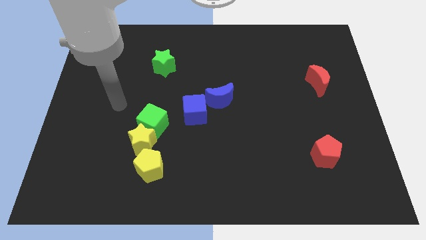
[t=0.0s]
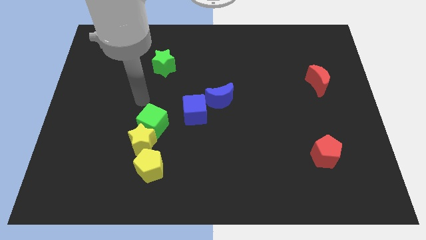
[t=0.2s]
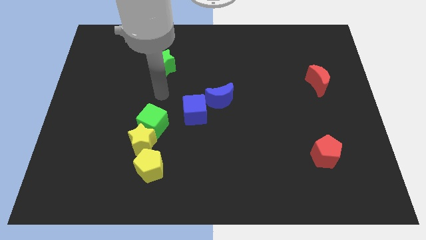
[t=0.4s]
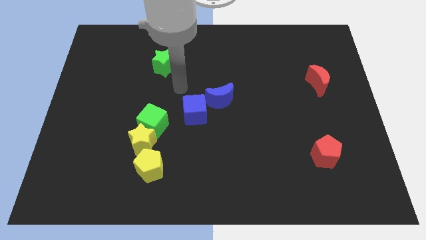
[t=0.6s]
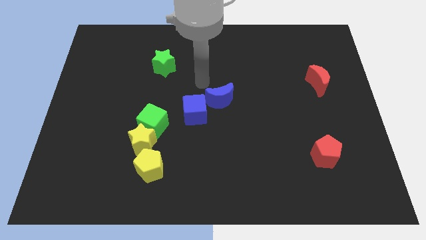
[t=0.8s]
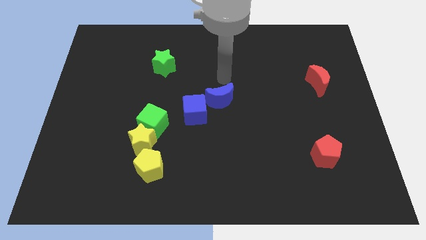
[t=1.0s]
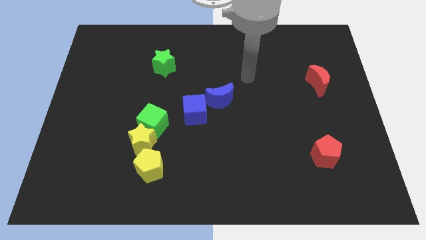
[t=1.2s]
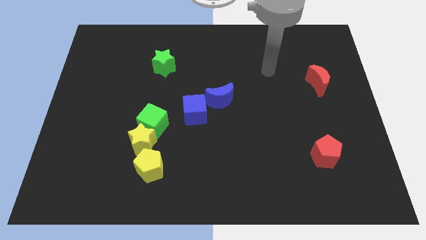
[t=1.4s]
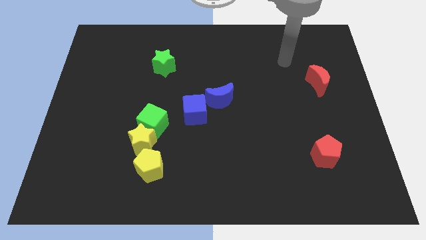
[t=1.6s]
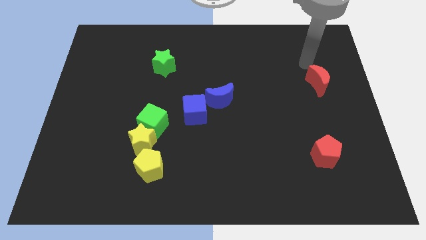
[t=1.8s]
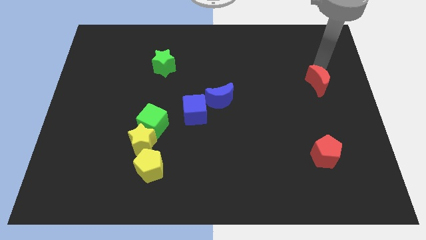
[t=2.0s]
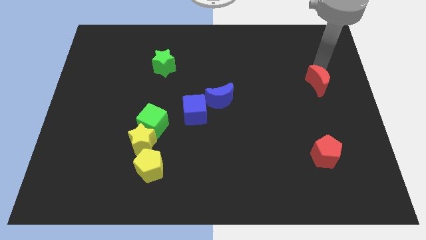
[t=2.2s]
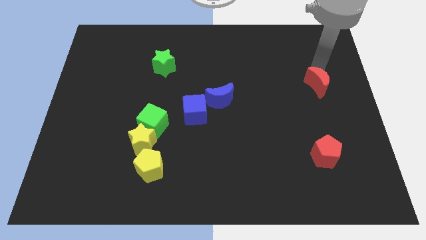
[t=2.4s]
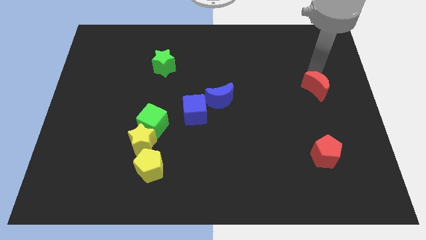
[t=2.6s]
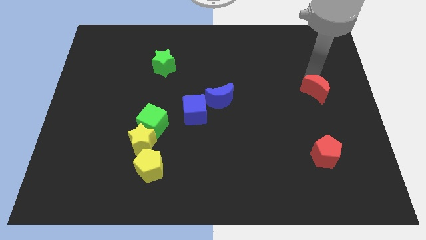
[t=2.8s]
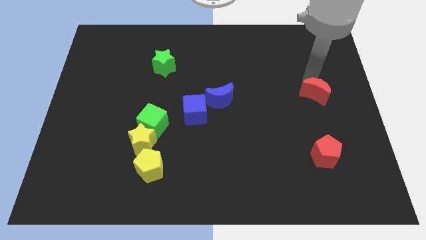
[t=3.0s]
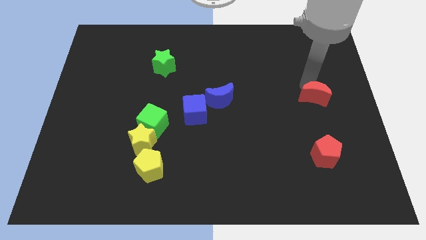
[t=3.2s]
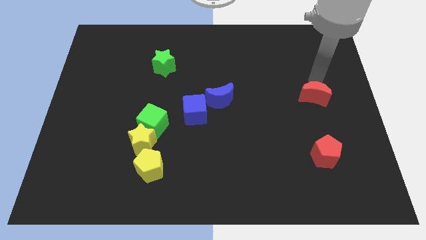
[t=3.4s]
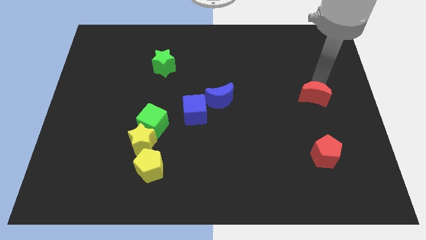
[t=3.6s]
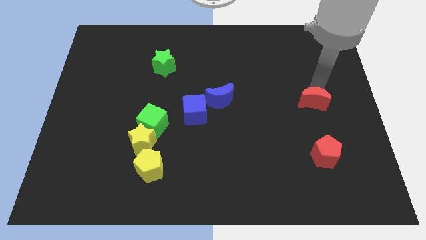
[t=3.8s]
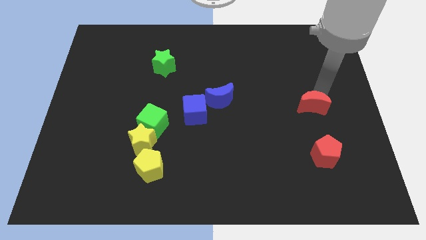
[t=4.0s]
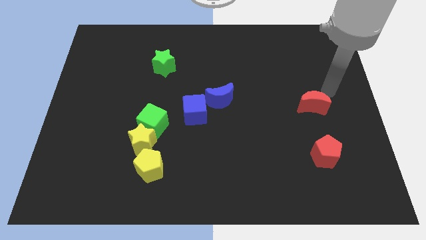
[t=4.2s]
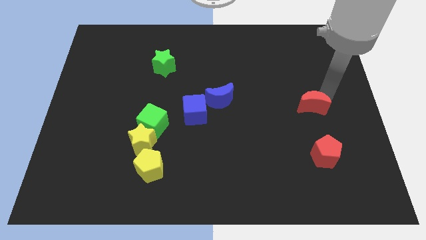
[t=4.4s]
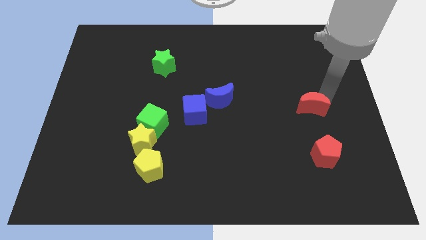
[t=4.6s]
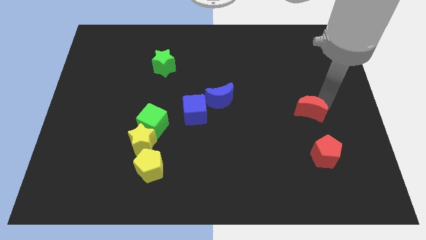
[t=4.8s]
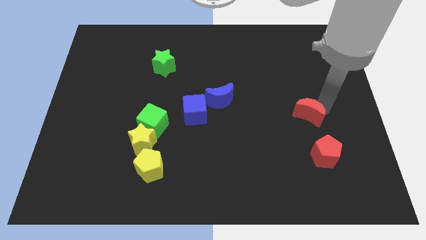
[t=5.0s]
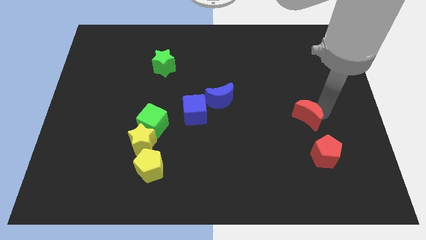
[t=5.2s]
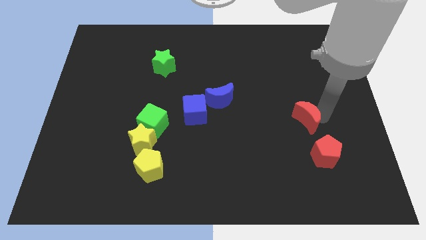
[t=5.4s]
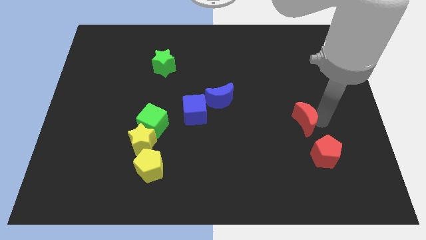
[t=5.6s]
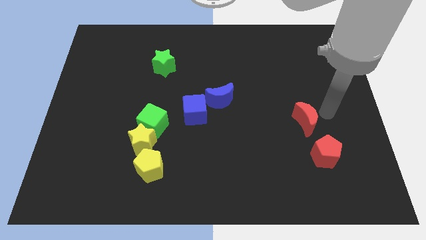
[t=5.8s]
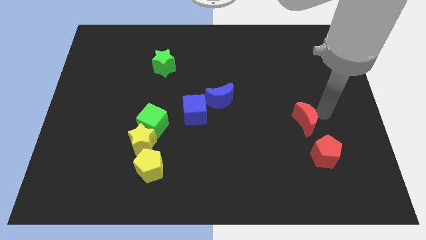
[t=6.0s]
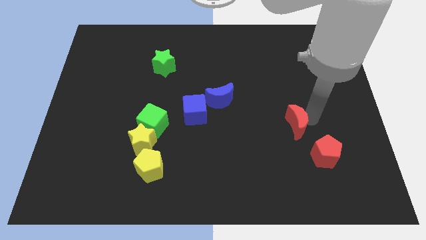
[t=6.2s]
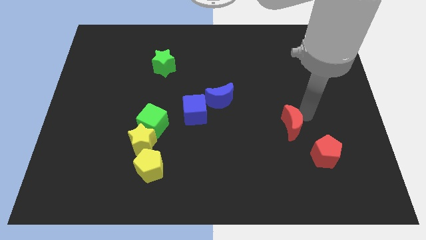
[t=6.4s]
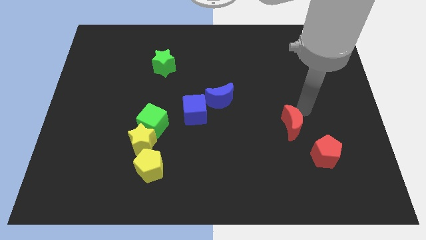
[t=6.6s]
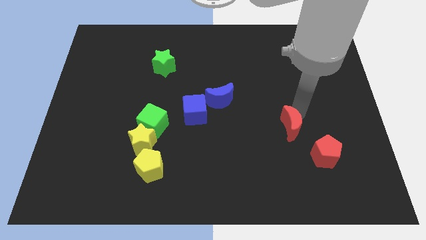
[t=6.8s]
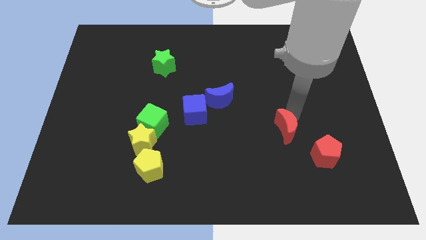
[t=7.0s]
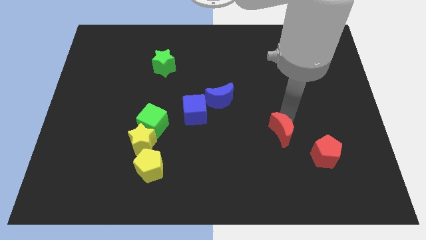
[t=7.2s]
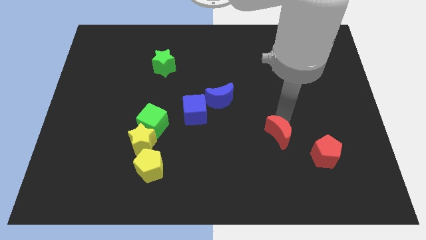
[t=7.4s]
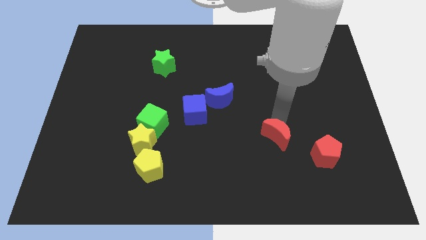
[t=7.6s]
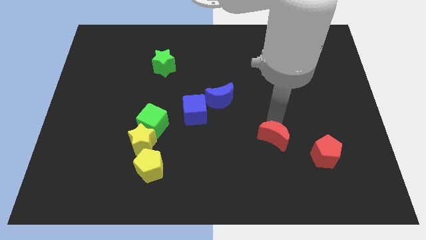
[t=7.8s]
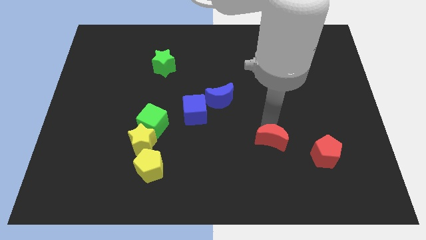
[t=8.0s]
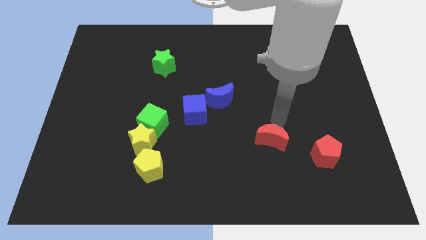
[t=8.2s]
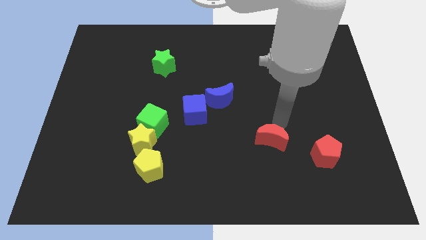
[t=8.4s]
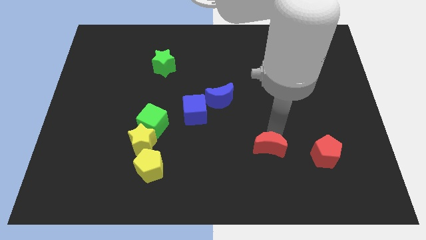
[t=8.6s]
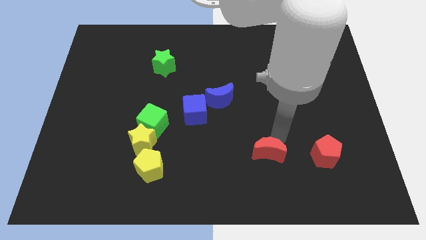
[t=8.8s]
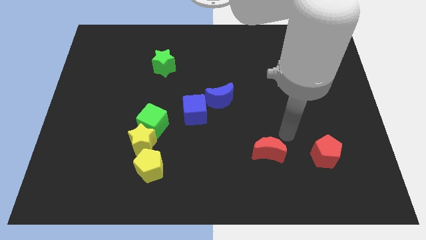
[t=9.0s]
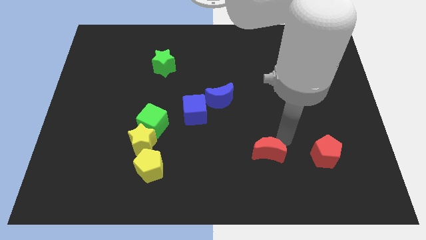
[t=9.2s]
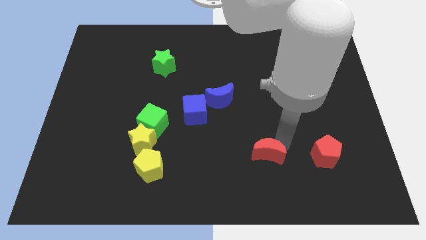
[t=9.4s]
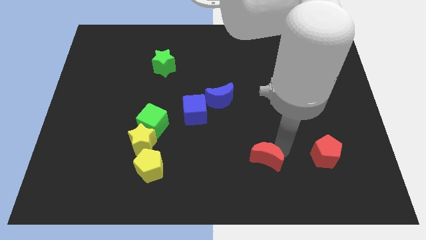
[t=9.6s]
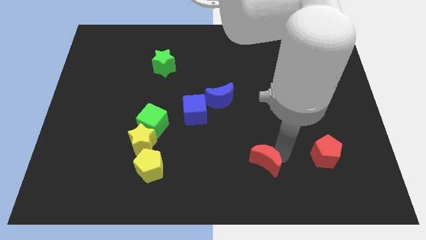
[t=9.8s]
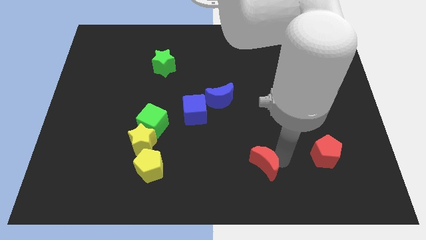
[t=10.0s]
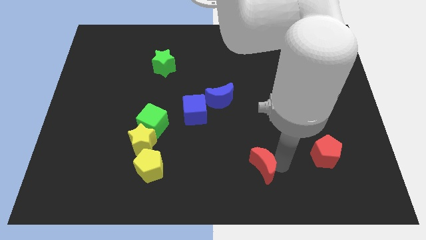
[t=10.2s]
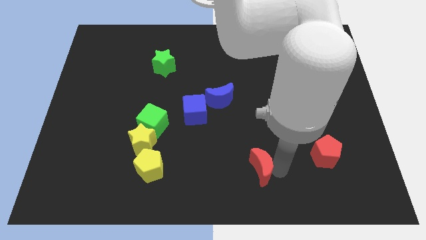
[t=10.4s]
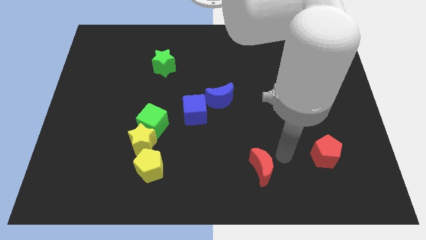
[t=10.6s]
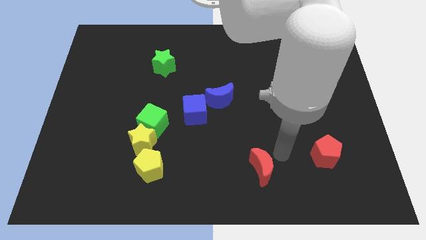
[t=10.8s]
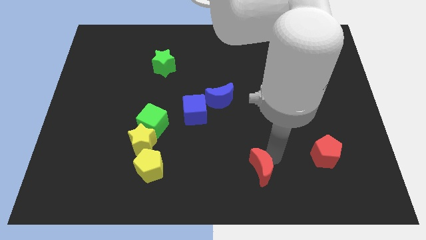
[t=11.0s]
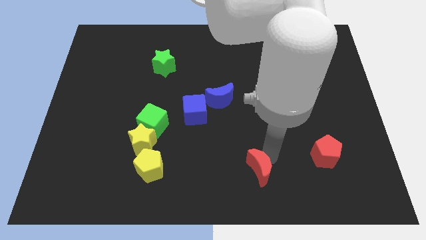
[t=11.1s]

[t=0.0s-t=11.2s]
move the red moon to the bottom

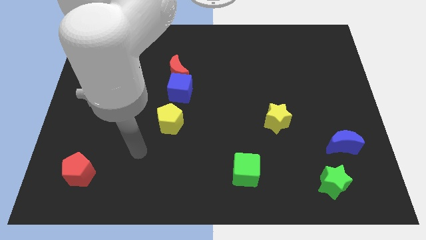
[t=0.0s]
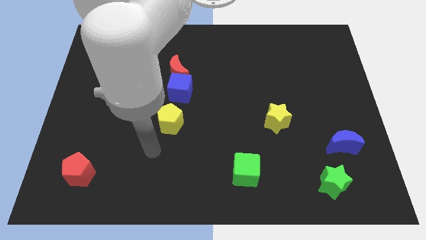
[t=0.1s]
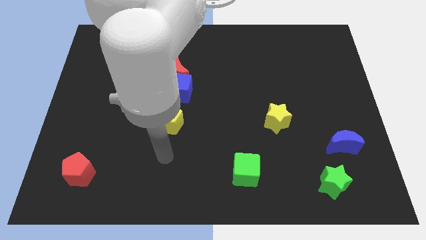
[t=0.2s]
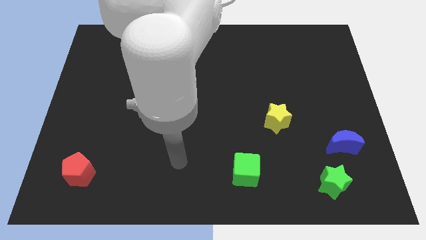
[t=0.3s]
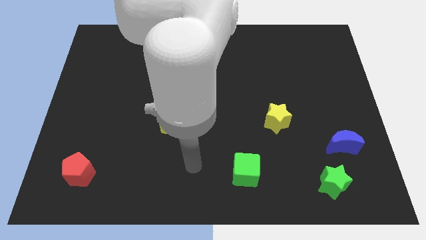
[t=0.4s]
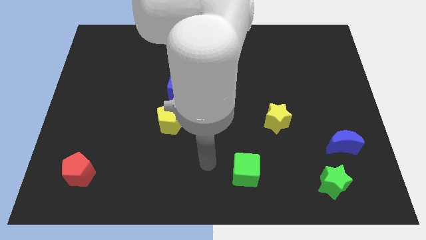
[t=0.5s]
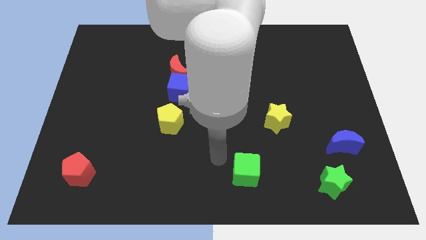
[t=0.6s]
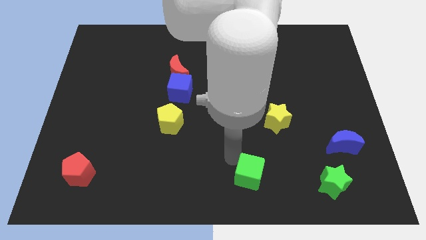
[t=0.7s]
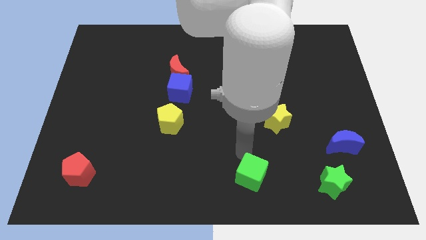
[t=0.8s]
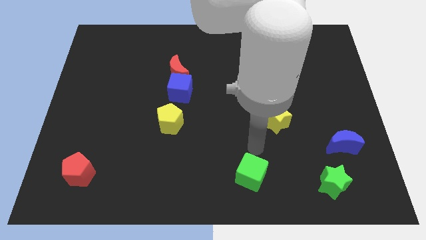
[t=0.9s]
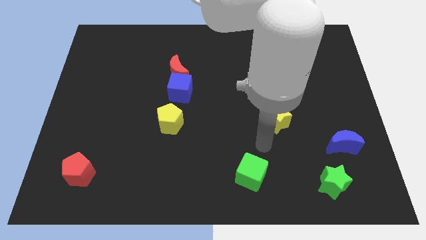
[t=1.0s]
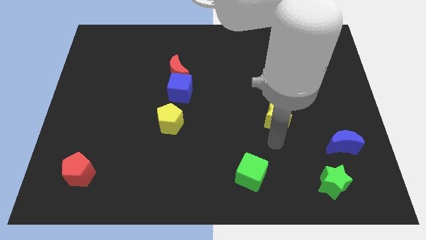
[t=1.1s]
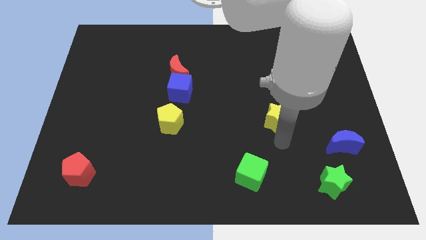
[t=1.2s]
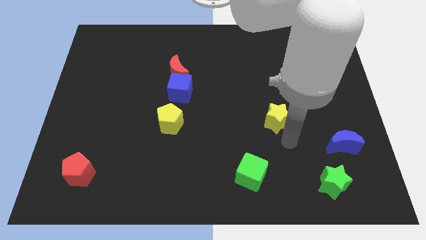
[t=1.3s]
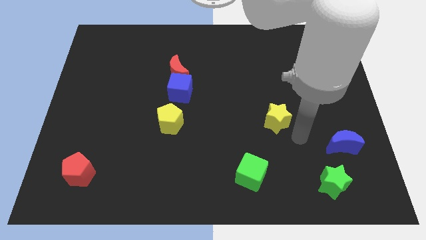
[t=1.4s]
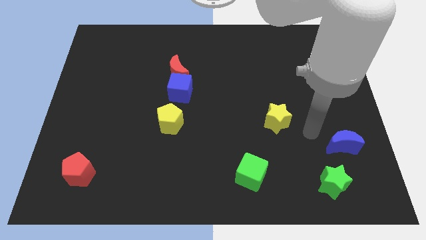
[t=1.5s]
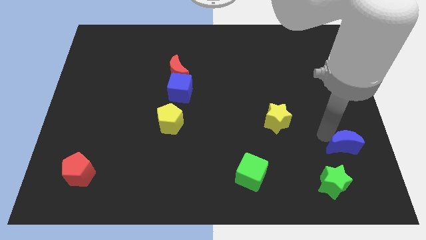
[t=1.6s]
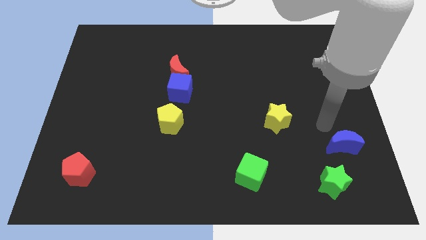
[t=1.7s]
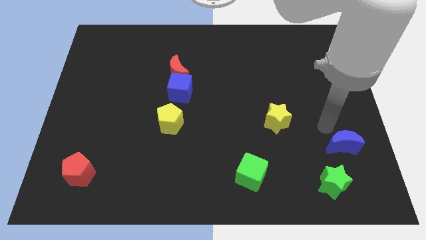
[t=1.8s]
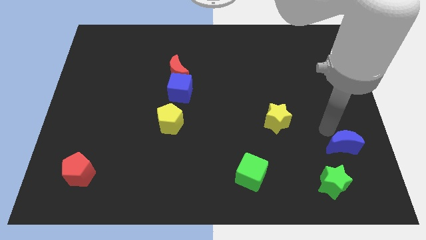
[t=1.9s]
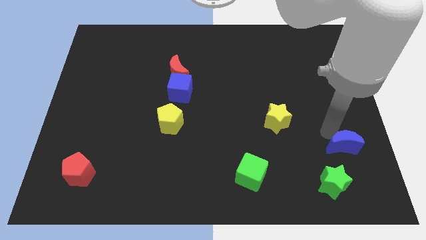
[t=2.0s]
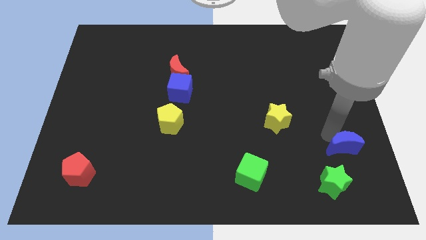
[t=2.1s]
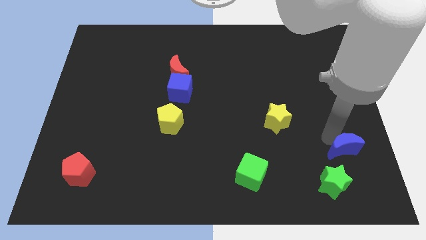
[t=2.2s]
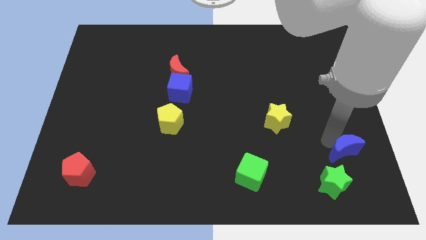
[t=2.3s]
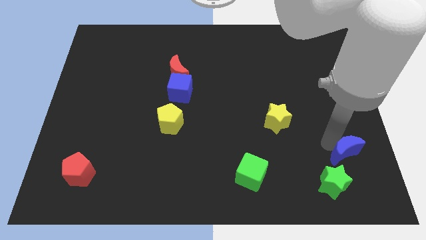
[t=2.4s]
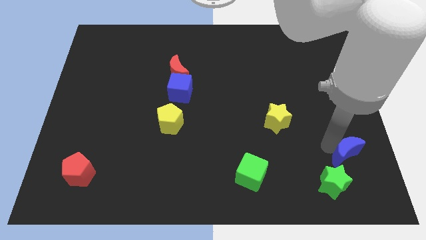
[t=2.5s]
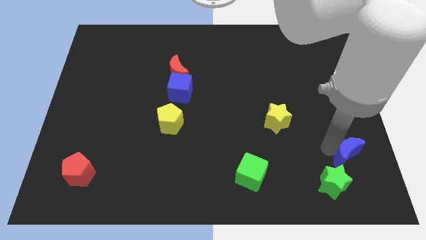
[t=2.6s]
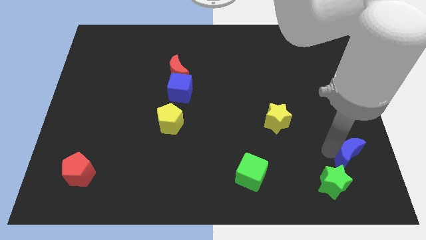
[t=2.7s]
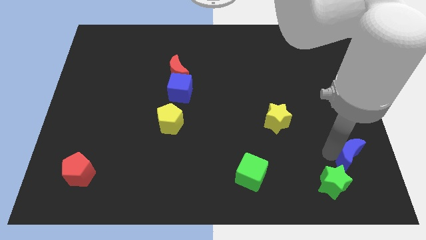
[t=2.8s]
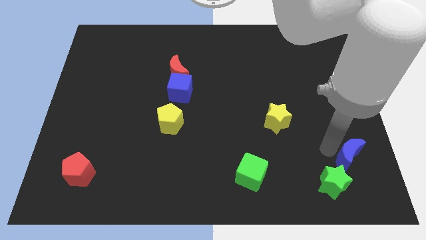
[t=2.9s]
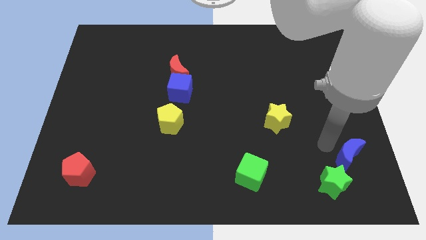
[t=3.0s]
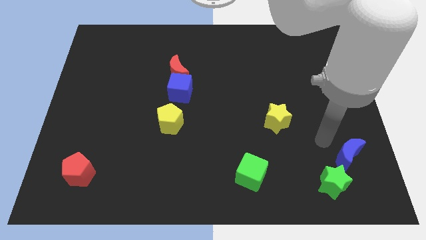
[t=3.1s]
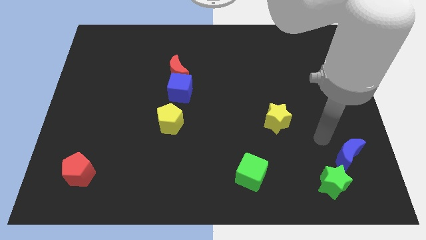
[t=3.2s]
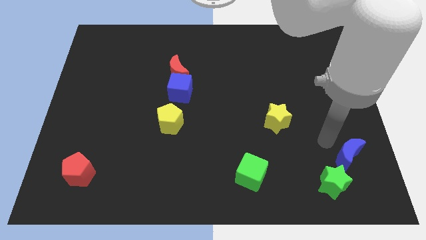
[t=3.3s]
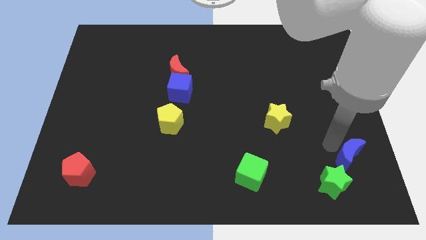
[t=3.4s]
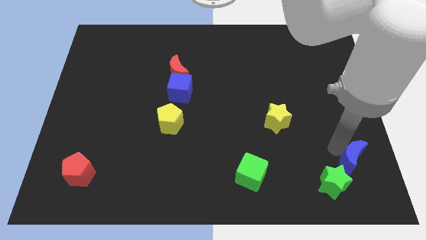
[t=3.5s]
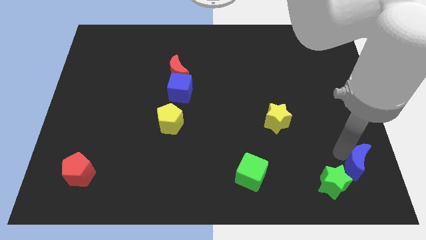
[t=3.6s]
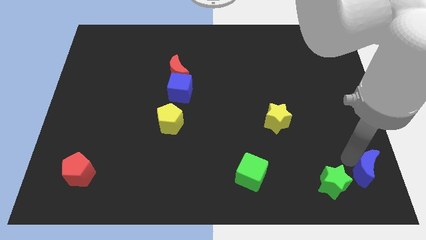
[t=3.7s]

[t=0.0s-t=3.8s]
move the blue moon to the lower right corner
